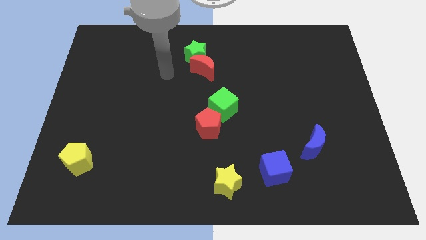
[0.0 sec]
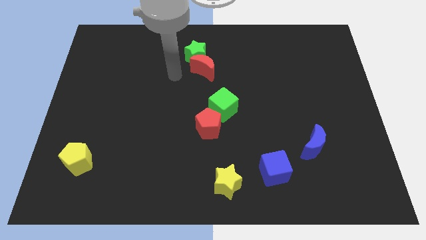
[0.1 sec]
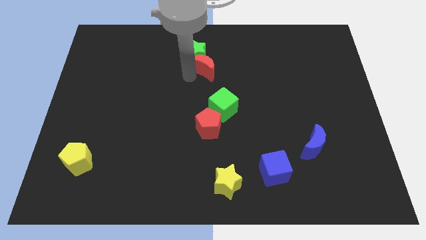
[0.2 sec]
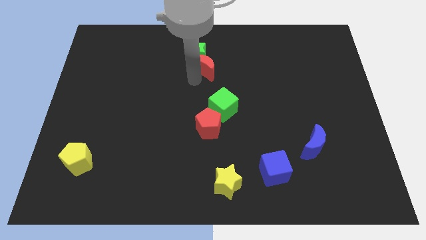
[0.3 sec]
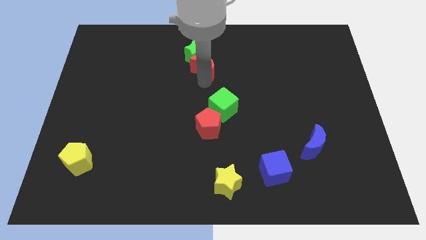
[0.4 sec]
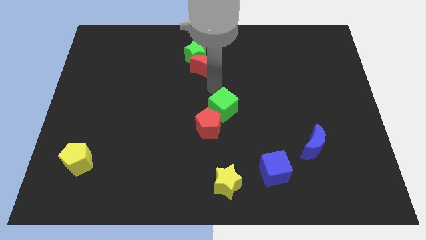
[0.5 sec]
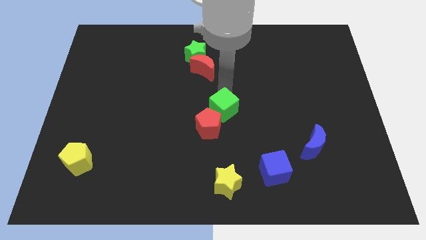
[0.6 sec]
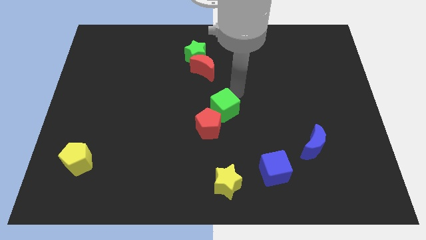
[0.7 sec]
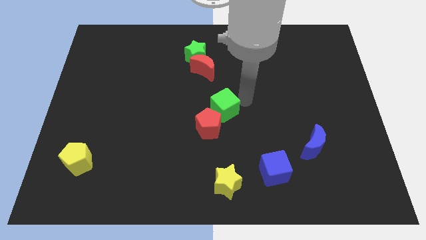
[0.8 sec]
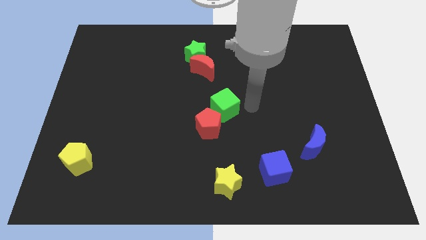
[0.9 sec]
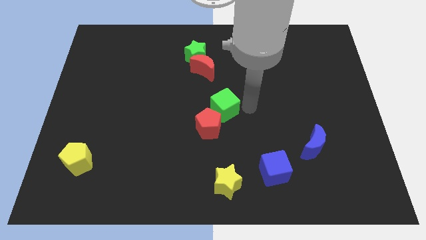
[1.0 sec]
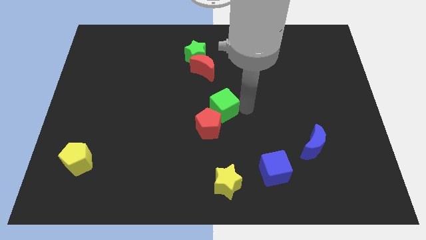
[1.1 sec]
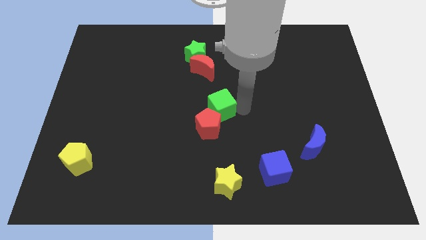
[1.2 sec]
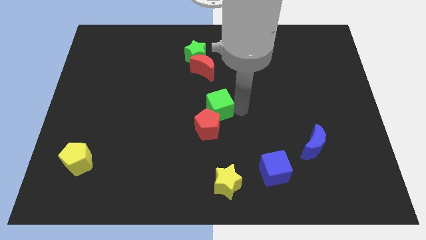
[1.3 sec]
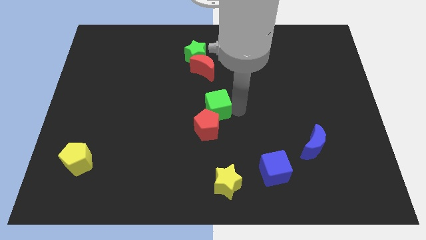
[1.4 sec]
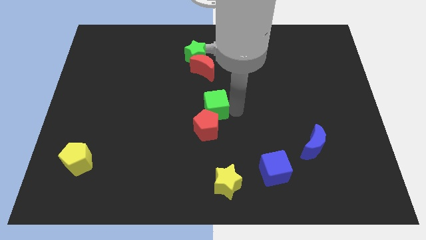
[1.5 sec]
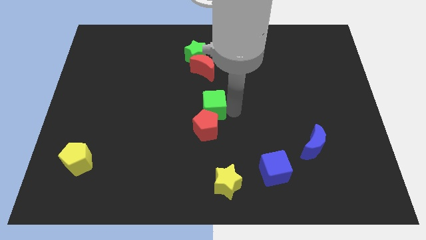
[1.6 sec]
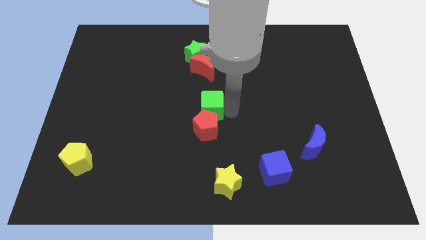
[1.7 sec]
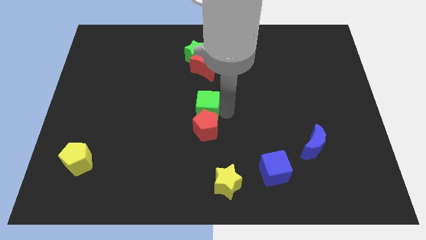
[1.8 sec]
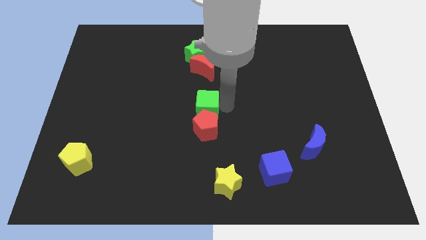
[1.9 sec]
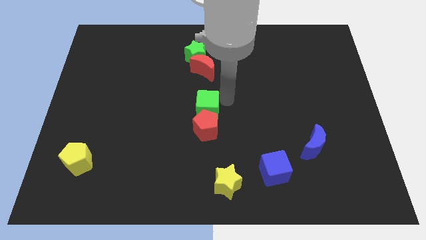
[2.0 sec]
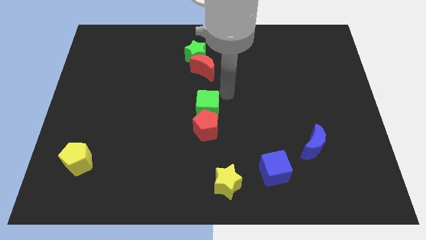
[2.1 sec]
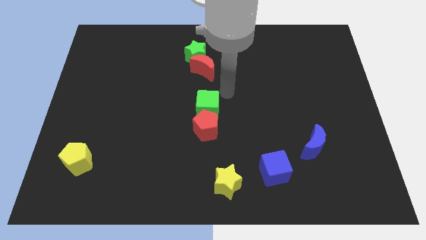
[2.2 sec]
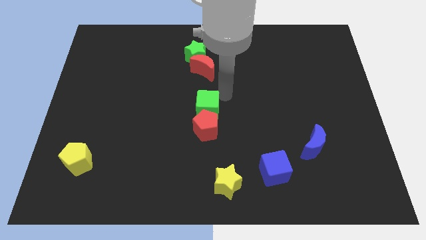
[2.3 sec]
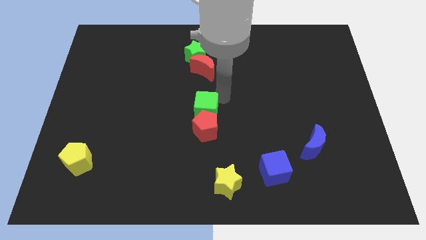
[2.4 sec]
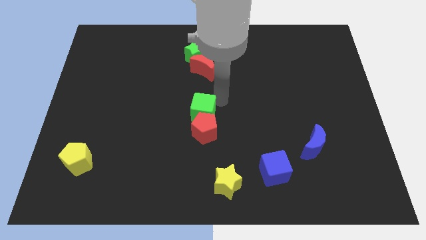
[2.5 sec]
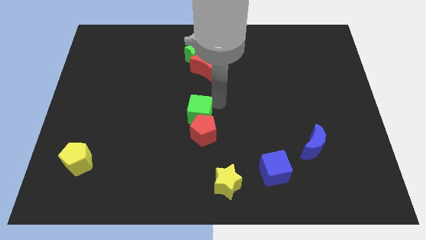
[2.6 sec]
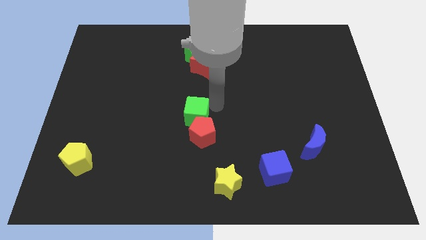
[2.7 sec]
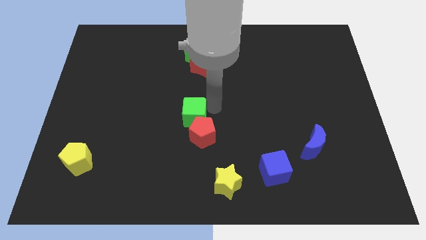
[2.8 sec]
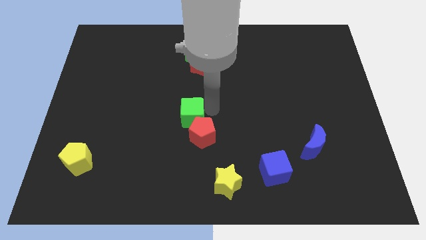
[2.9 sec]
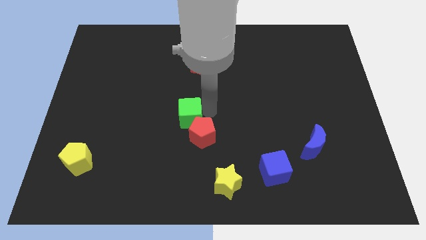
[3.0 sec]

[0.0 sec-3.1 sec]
slightly push the green cube diagonally down and to the left

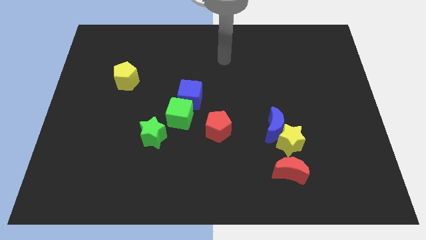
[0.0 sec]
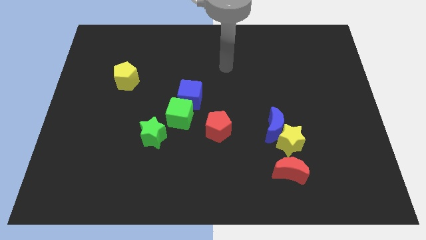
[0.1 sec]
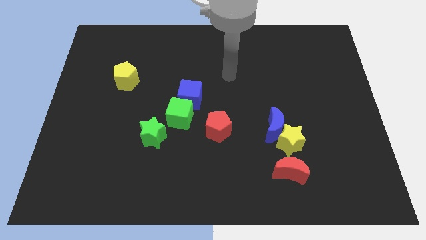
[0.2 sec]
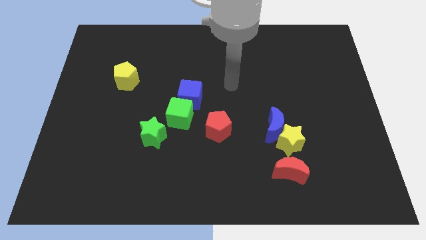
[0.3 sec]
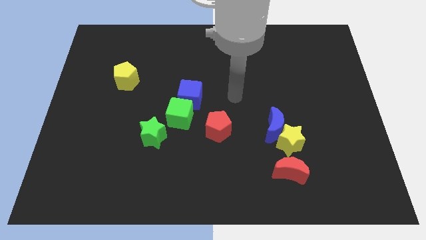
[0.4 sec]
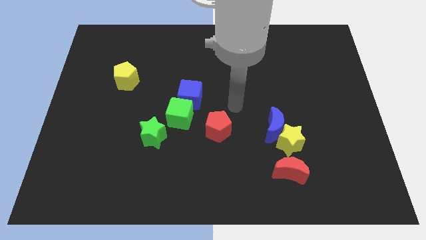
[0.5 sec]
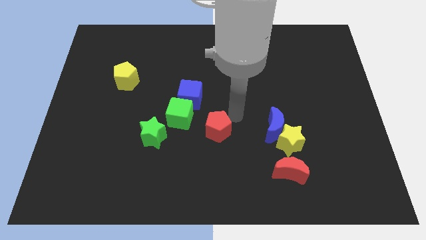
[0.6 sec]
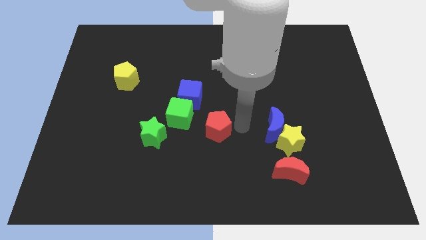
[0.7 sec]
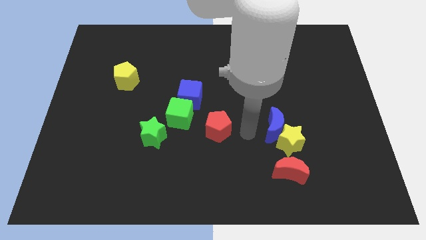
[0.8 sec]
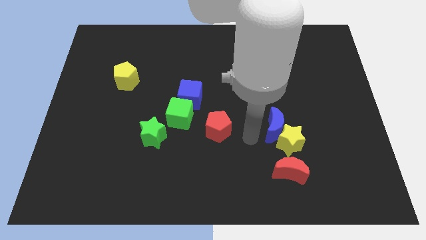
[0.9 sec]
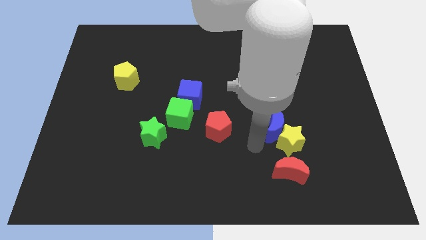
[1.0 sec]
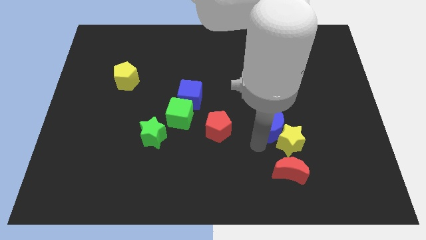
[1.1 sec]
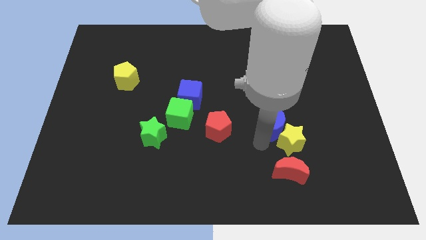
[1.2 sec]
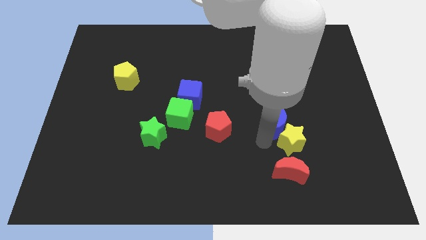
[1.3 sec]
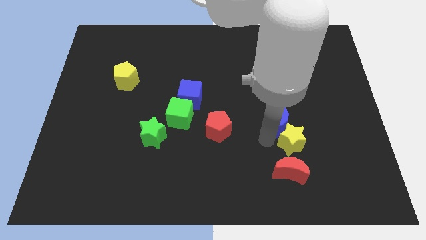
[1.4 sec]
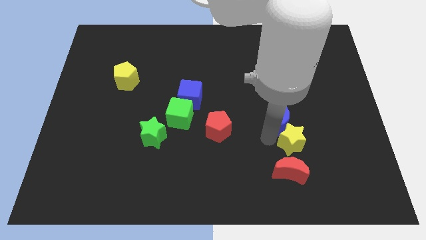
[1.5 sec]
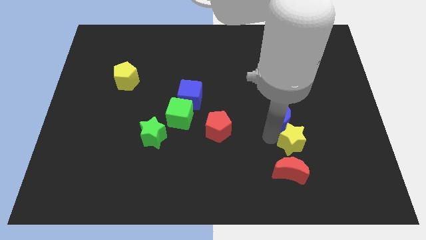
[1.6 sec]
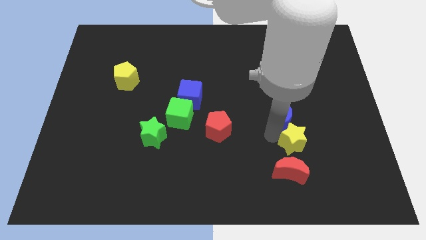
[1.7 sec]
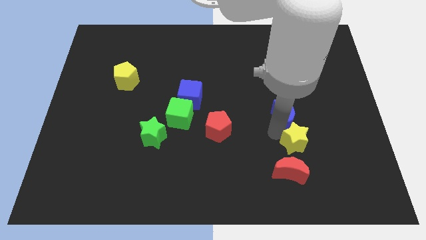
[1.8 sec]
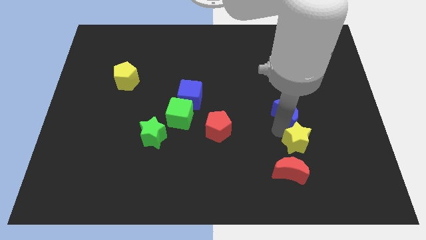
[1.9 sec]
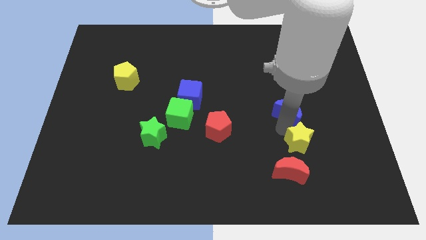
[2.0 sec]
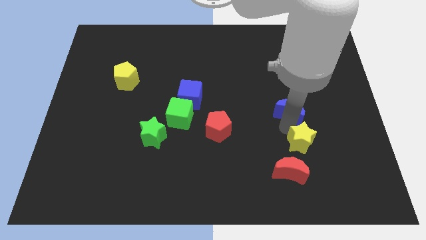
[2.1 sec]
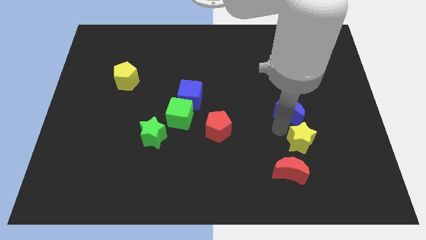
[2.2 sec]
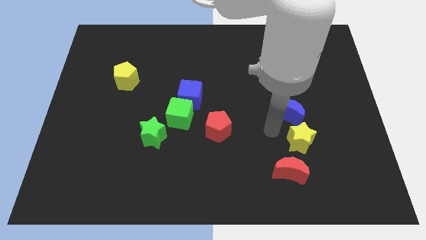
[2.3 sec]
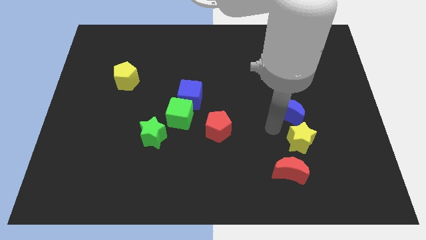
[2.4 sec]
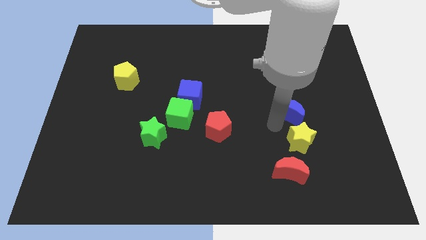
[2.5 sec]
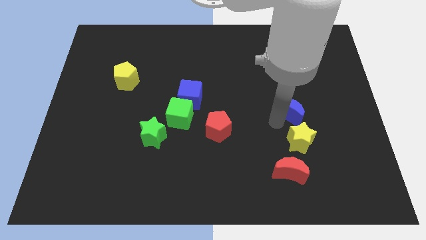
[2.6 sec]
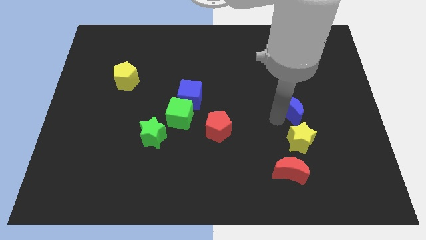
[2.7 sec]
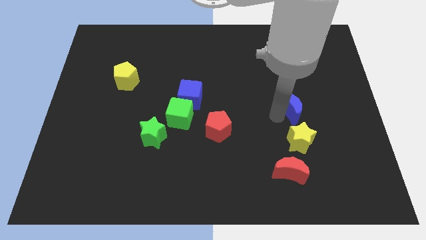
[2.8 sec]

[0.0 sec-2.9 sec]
slide the blue moon a bit upwards and to the right diagonally

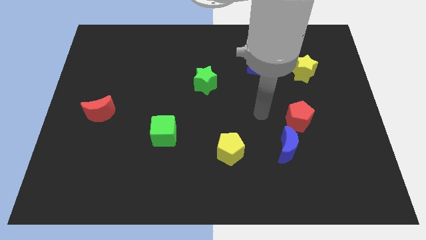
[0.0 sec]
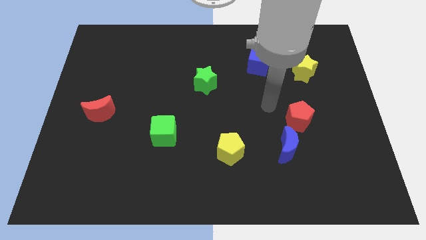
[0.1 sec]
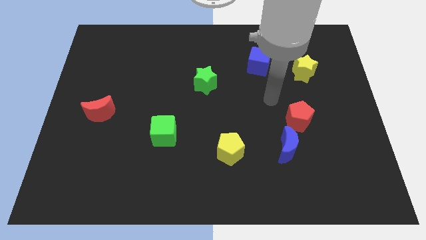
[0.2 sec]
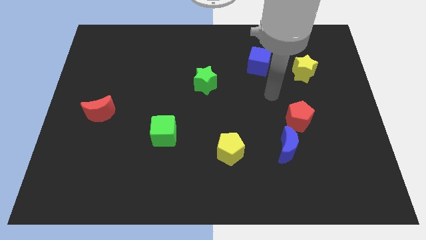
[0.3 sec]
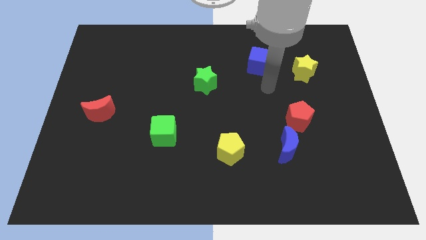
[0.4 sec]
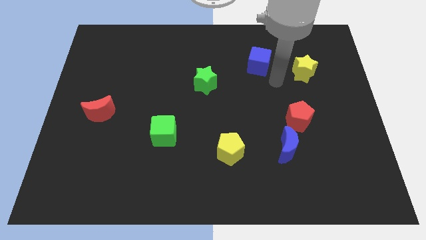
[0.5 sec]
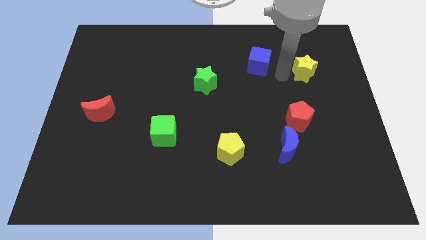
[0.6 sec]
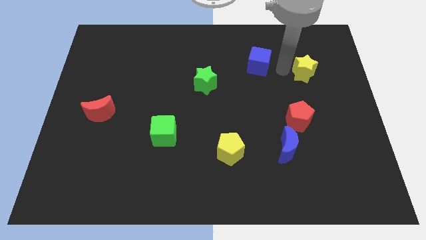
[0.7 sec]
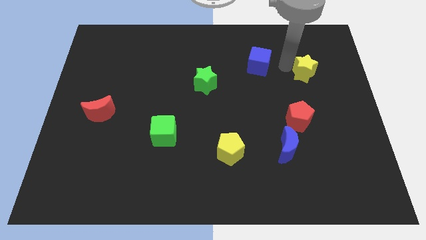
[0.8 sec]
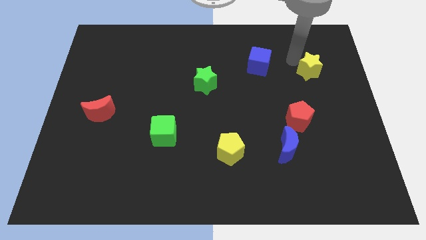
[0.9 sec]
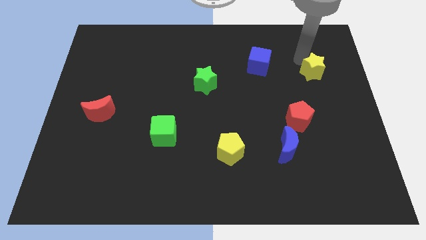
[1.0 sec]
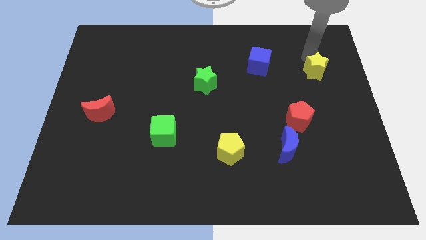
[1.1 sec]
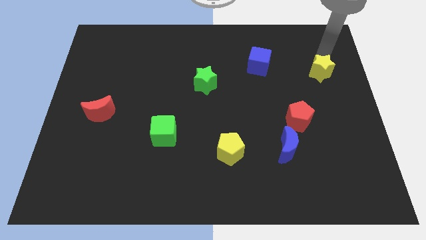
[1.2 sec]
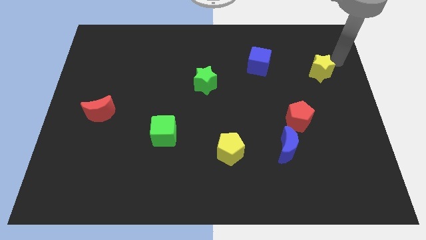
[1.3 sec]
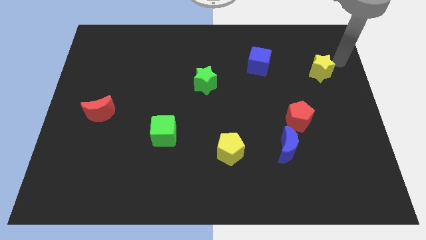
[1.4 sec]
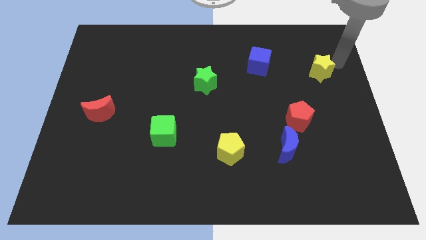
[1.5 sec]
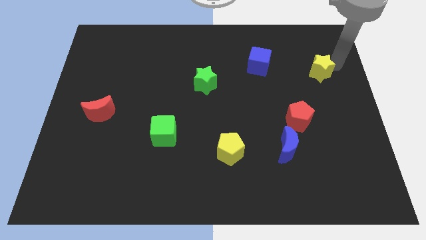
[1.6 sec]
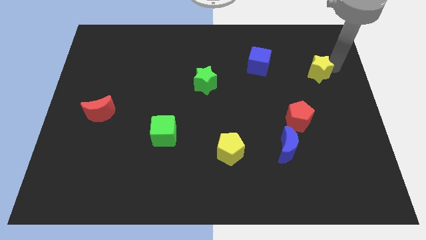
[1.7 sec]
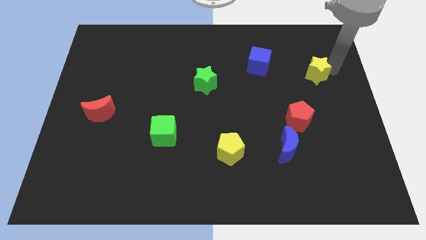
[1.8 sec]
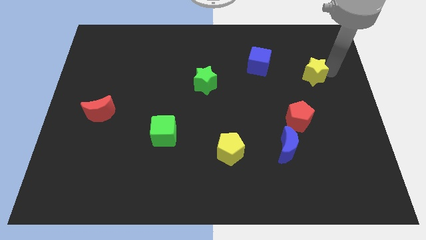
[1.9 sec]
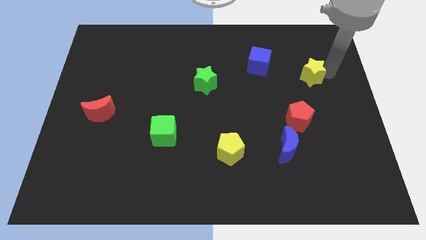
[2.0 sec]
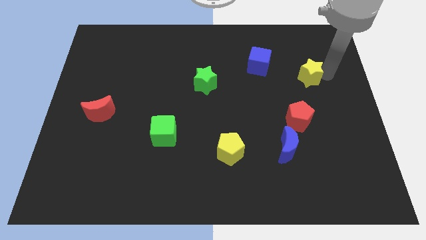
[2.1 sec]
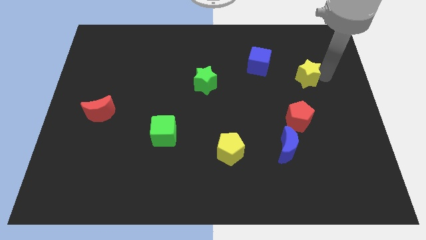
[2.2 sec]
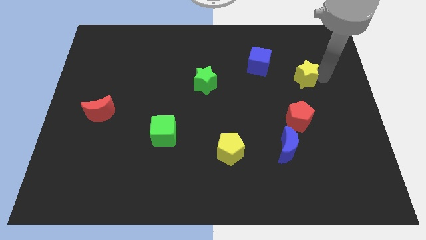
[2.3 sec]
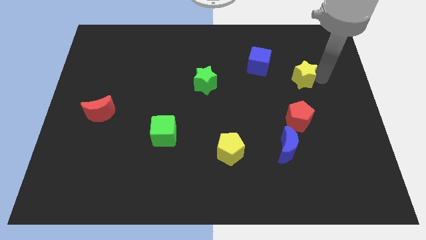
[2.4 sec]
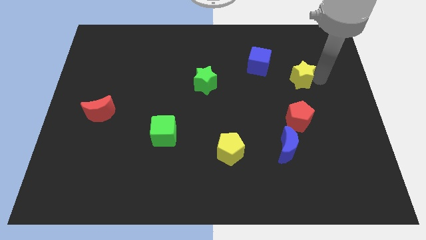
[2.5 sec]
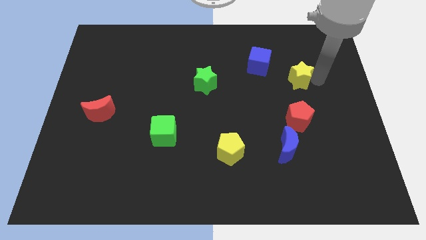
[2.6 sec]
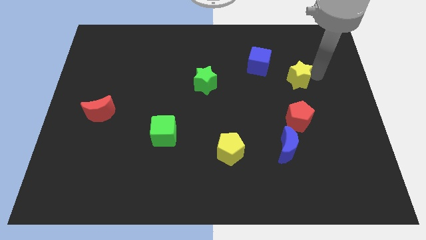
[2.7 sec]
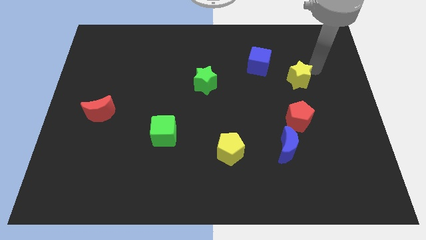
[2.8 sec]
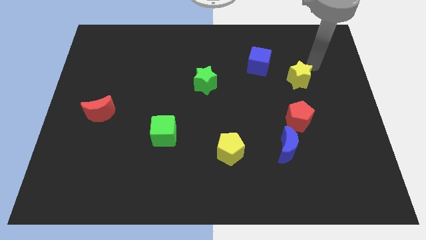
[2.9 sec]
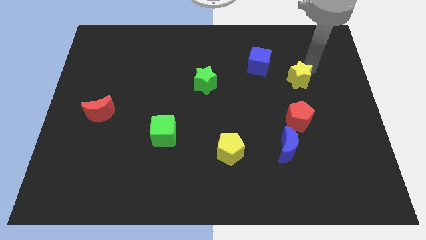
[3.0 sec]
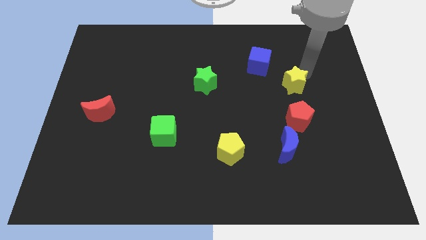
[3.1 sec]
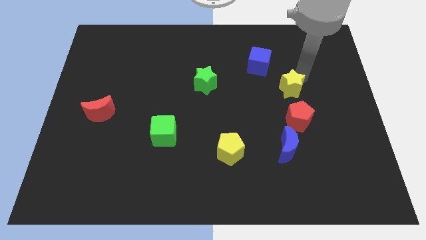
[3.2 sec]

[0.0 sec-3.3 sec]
slide the yellow star slightly down and left diagonally
